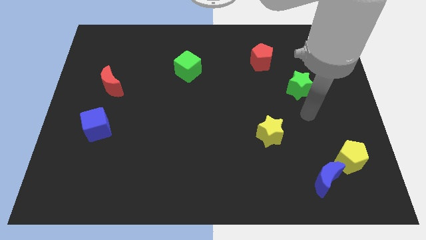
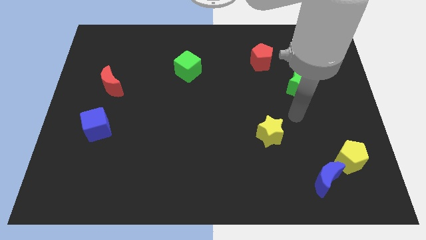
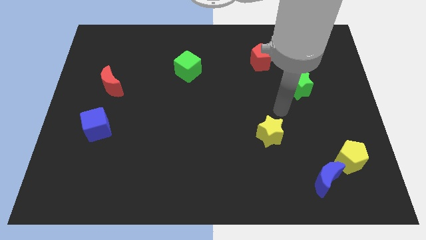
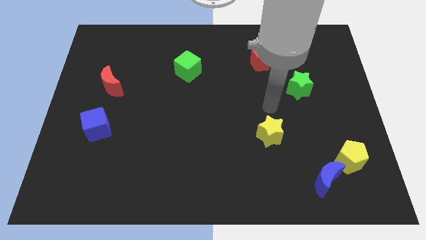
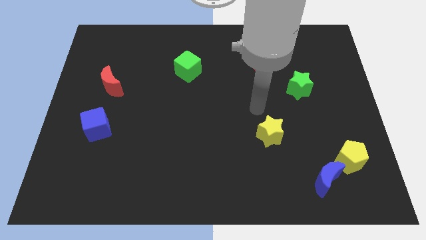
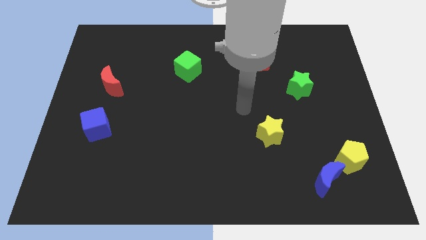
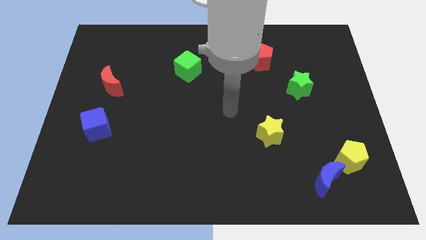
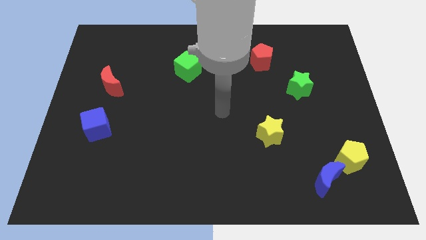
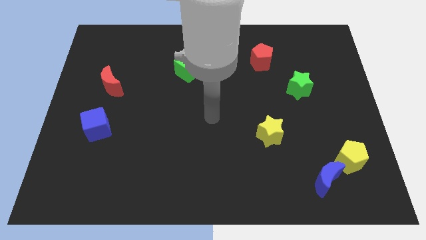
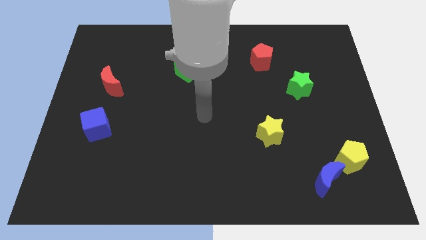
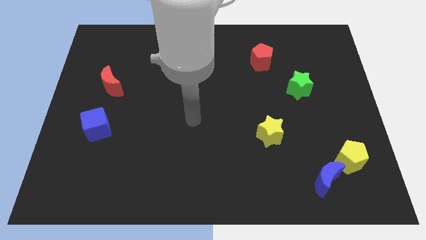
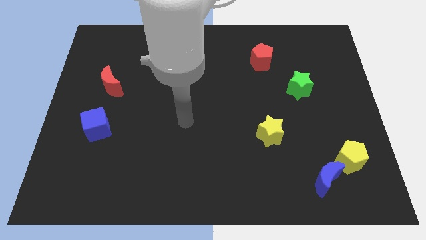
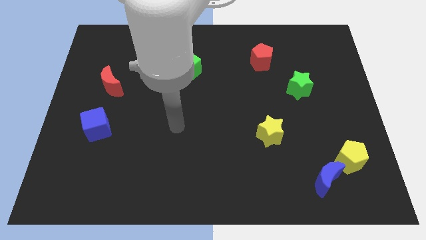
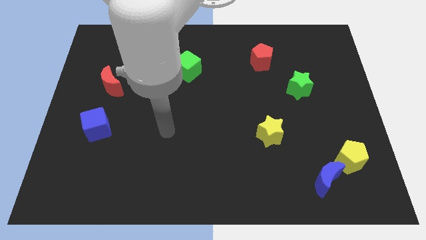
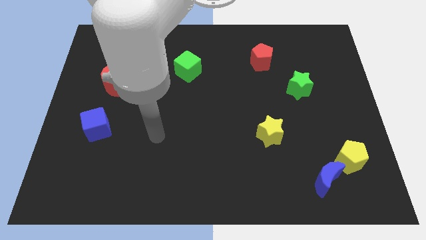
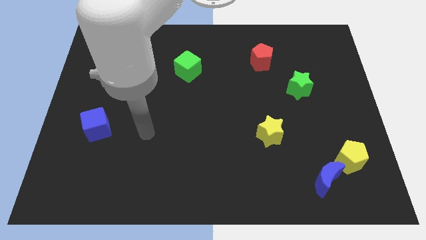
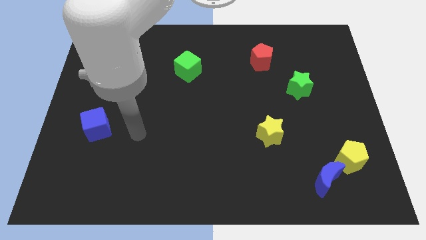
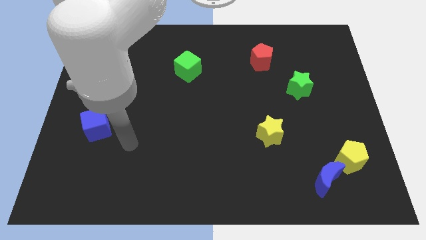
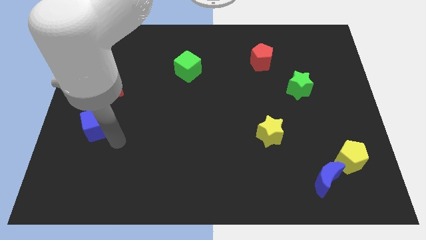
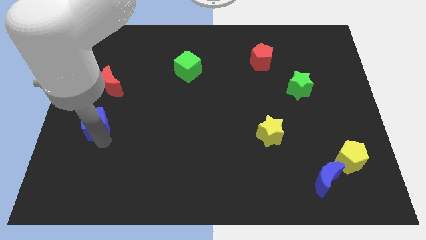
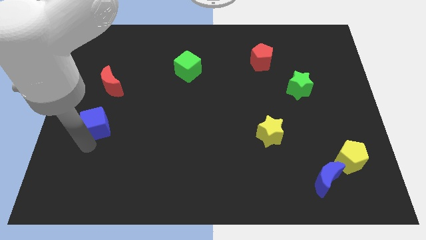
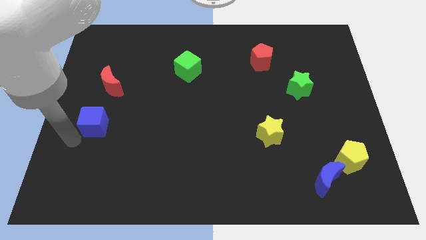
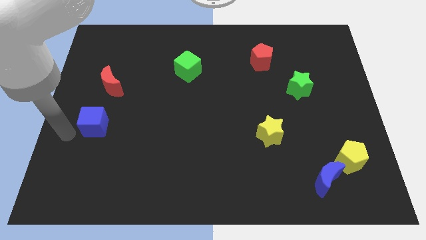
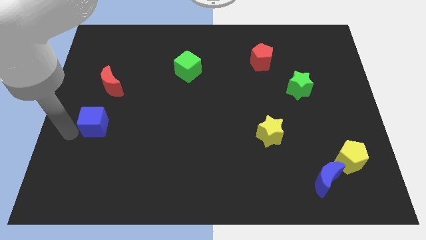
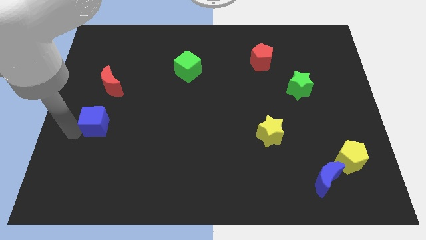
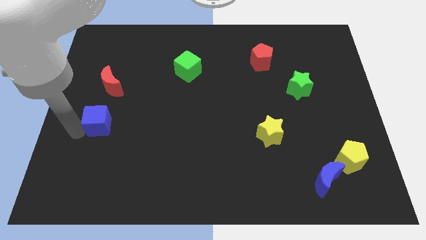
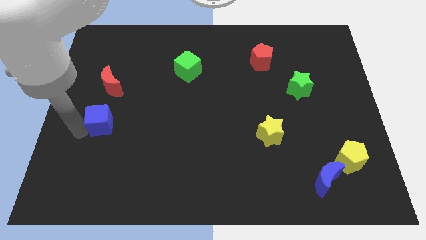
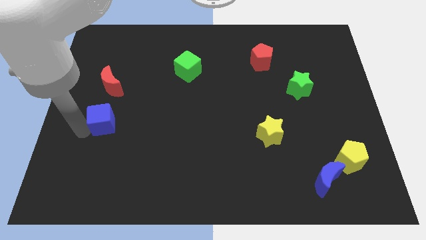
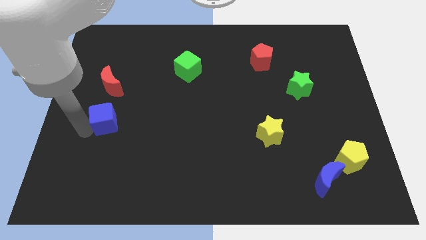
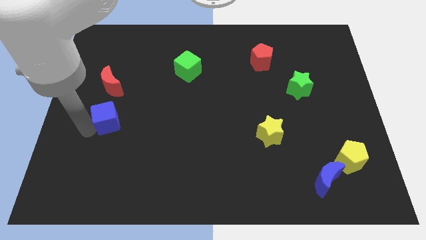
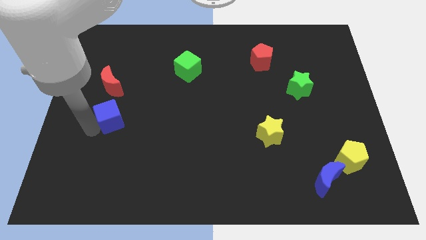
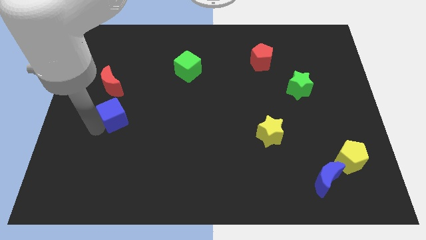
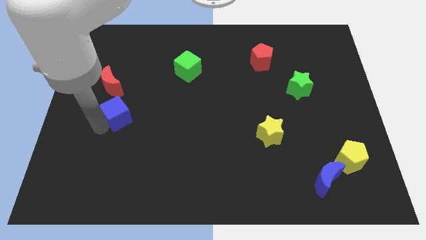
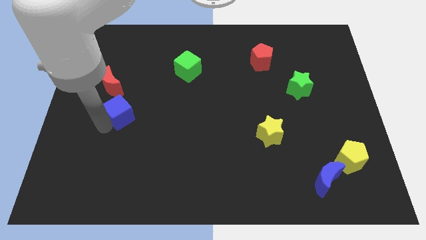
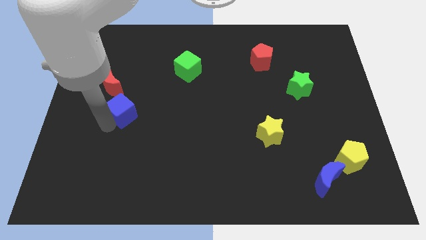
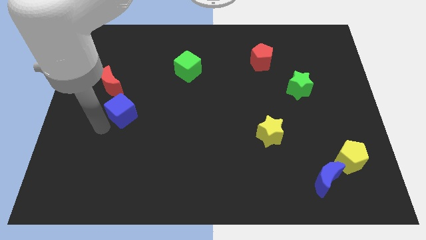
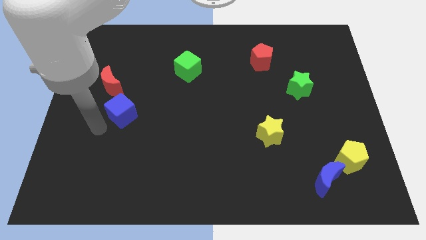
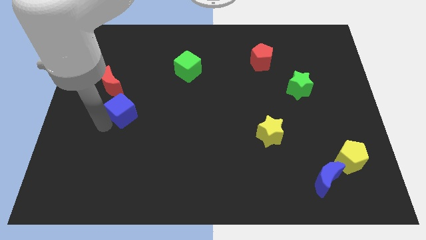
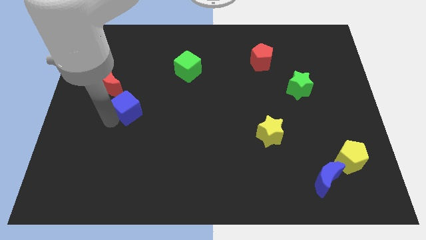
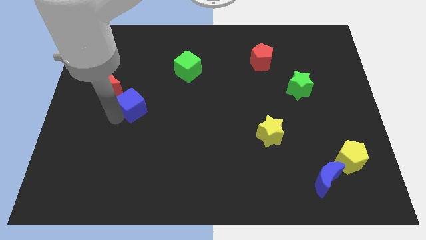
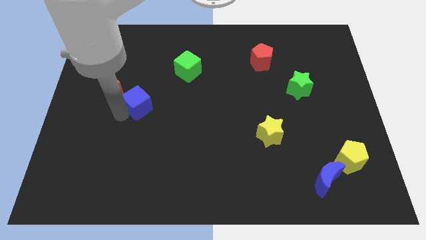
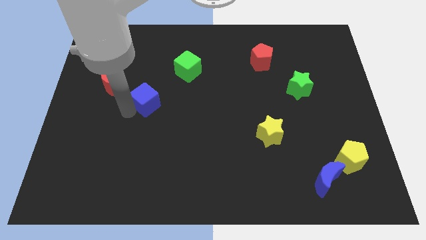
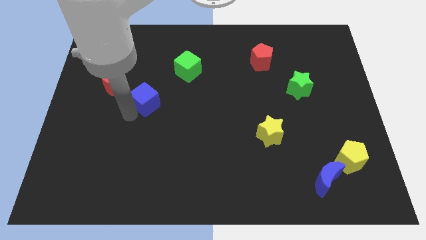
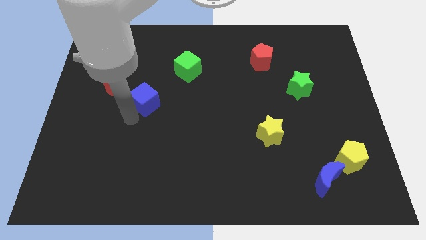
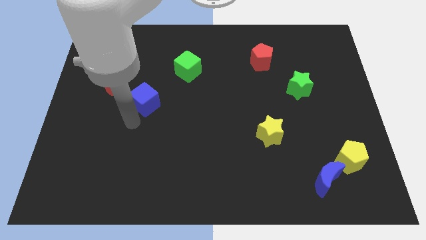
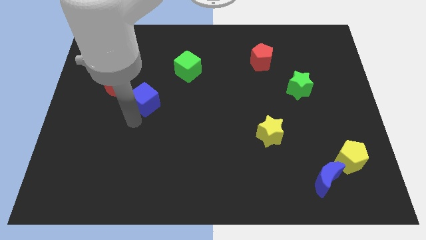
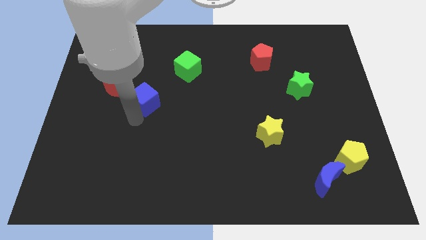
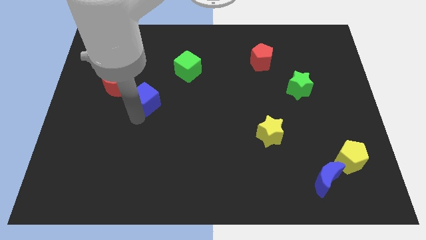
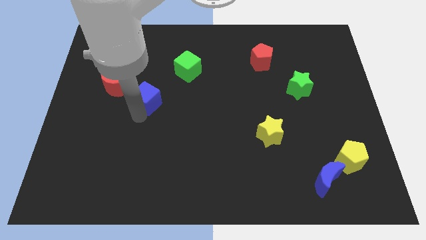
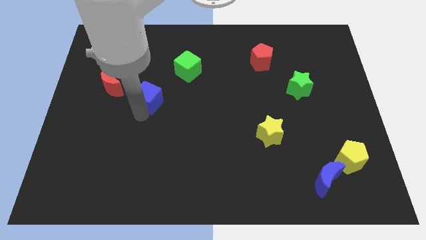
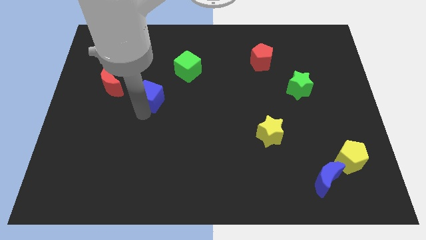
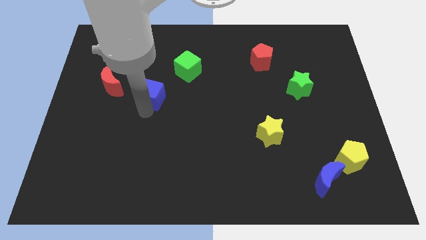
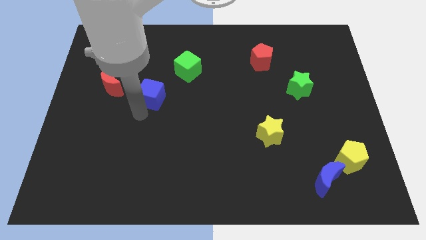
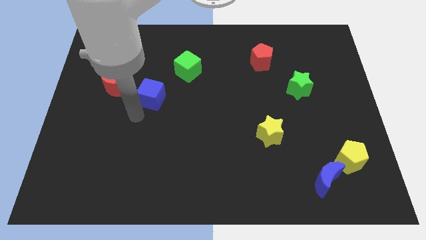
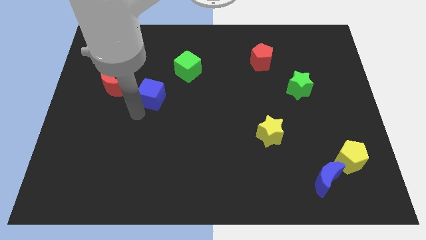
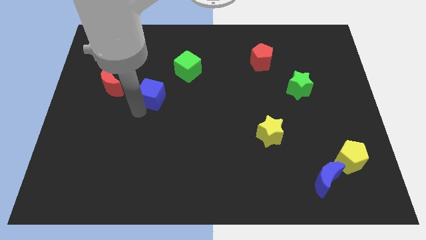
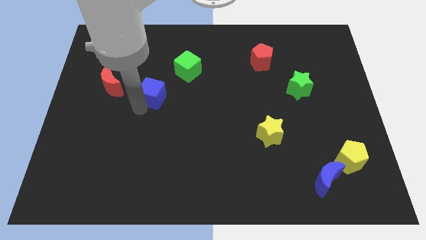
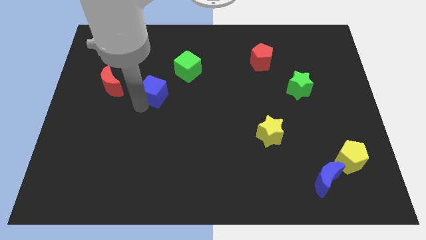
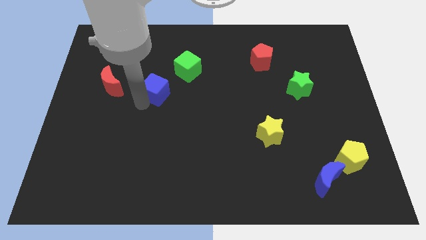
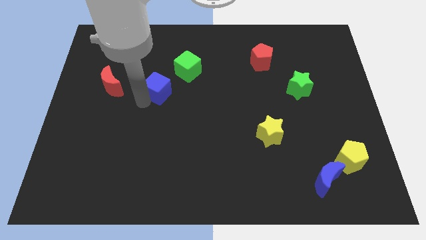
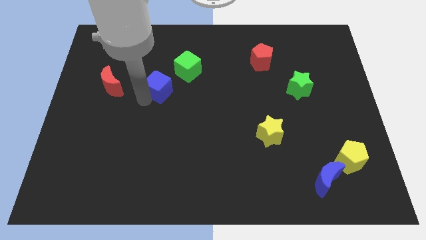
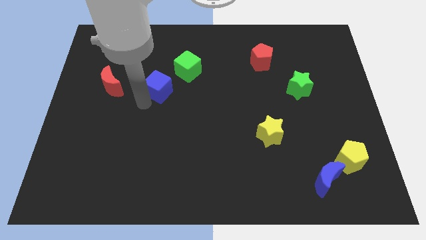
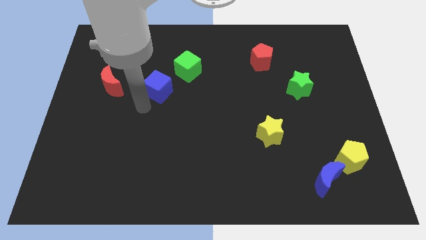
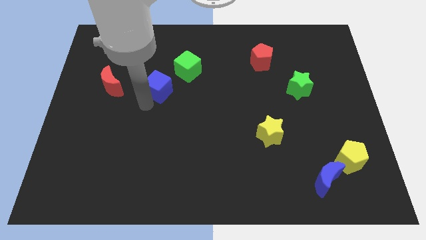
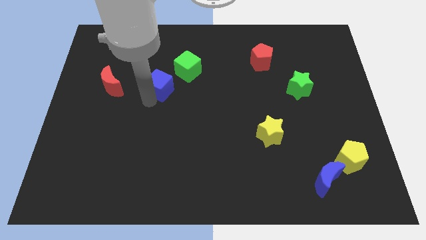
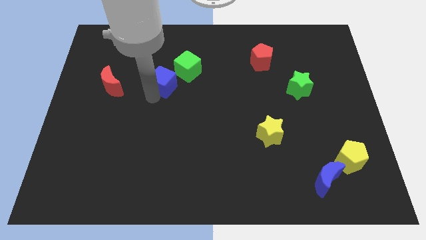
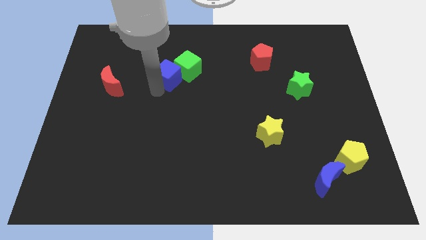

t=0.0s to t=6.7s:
slide the blue cube close to the green cube
